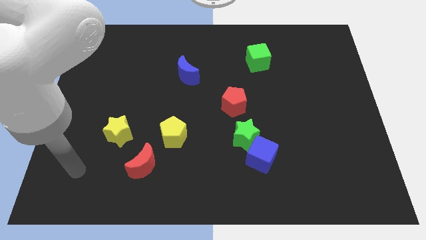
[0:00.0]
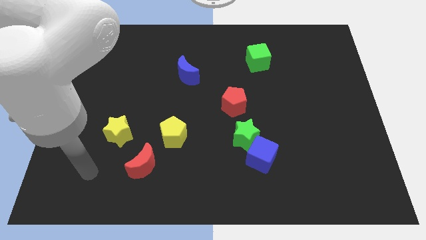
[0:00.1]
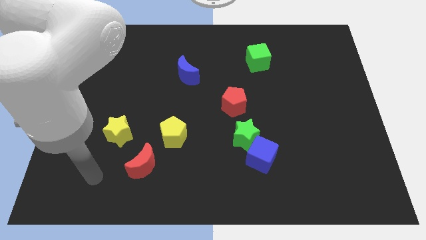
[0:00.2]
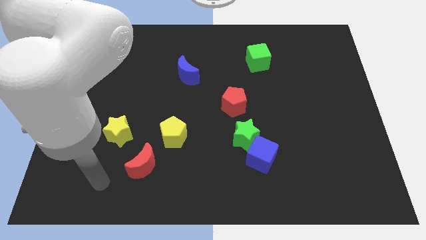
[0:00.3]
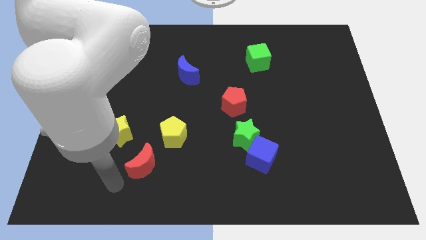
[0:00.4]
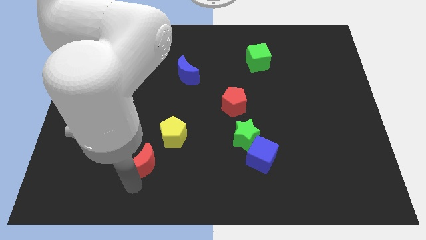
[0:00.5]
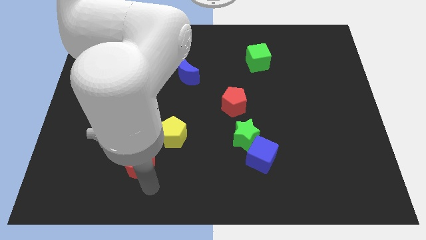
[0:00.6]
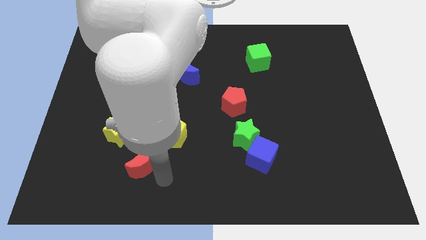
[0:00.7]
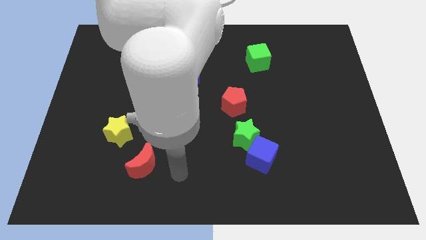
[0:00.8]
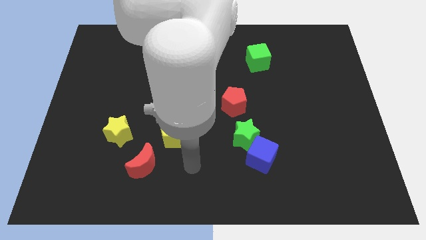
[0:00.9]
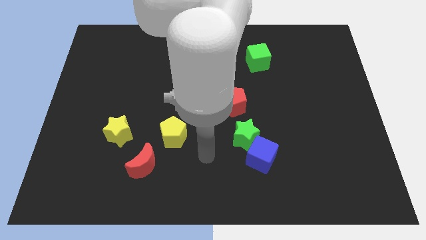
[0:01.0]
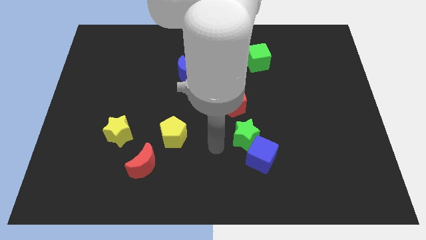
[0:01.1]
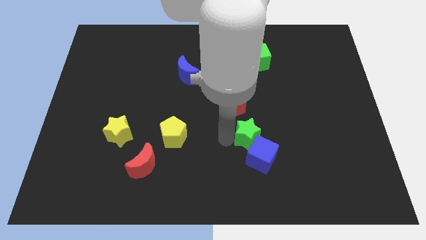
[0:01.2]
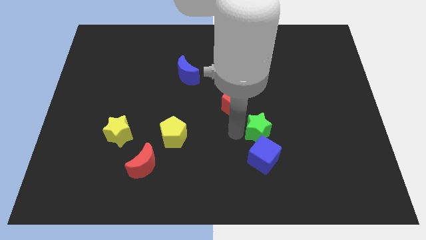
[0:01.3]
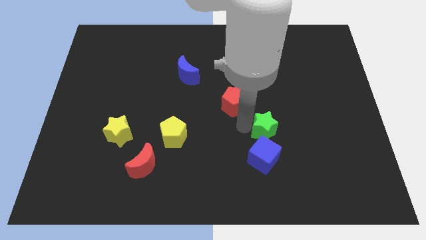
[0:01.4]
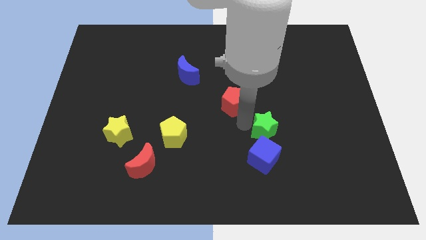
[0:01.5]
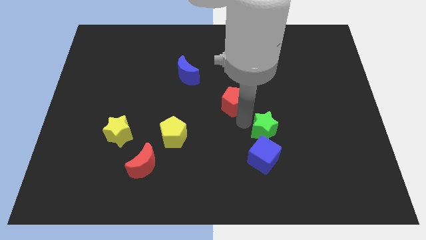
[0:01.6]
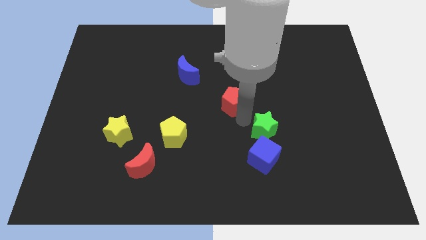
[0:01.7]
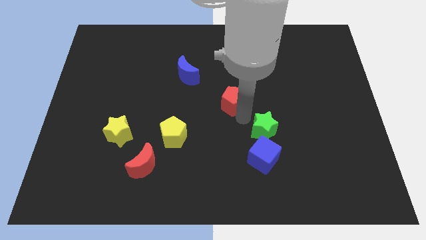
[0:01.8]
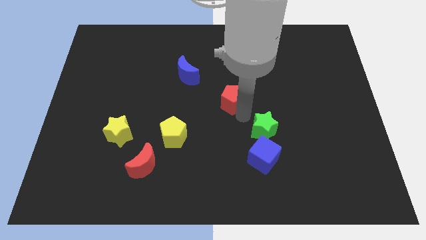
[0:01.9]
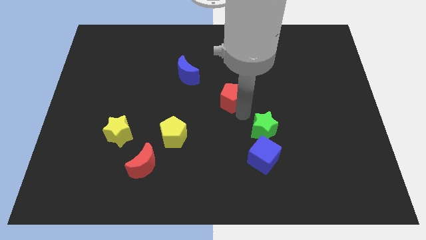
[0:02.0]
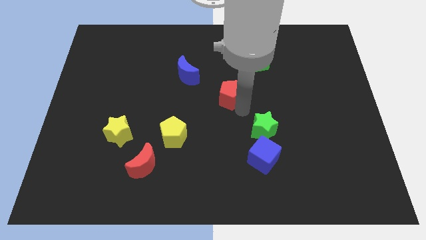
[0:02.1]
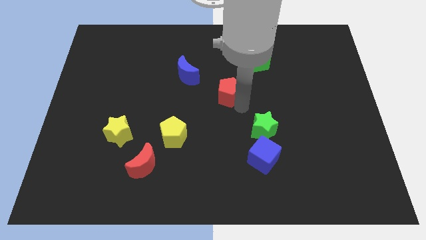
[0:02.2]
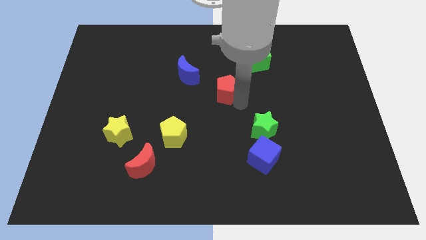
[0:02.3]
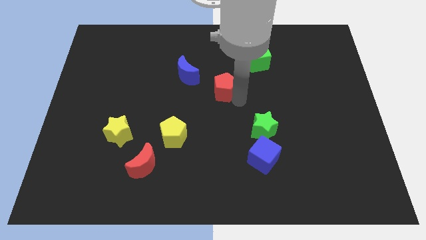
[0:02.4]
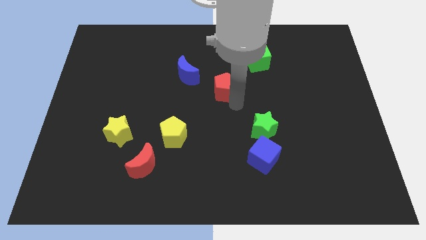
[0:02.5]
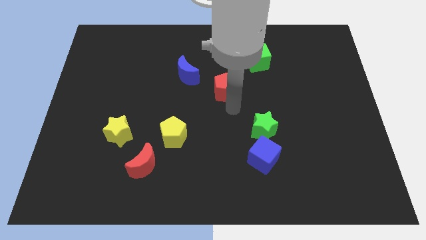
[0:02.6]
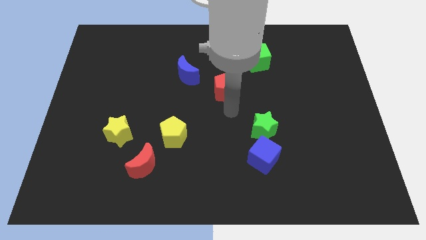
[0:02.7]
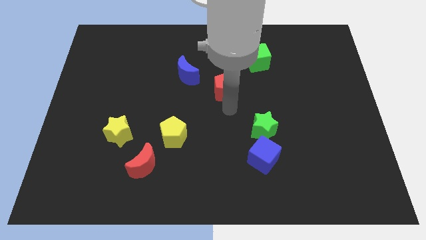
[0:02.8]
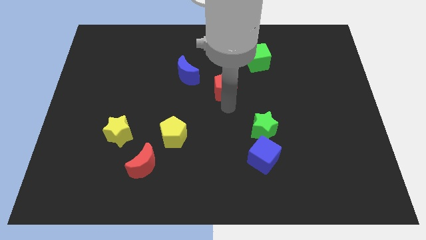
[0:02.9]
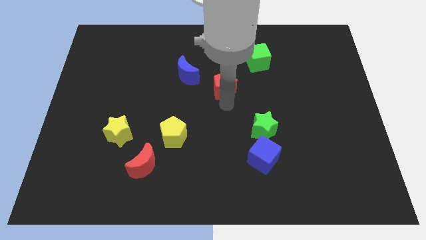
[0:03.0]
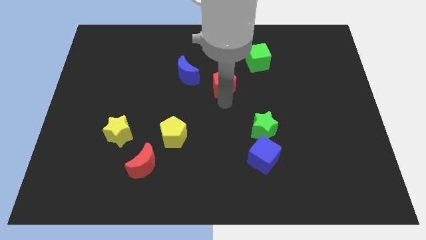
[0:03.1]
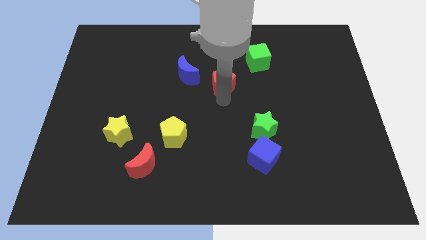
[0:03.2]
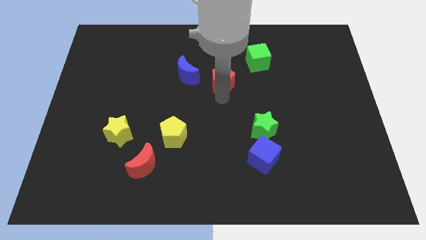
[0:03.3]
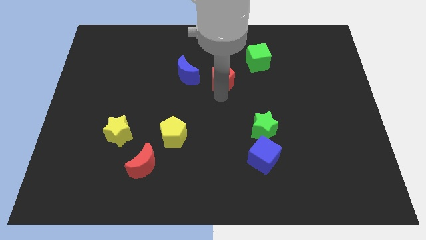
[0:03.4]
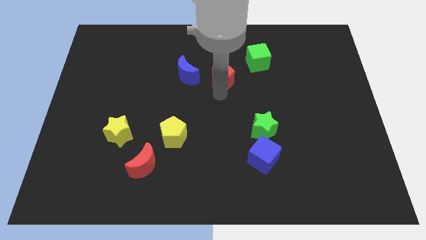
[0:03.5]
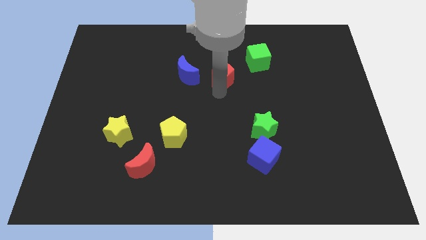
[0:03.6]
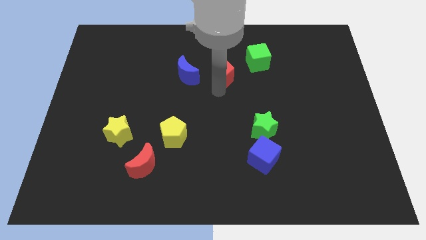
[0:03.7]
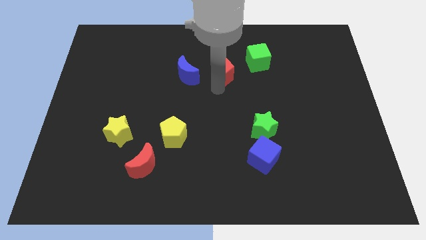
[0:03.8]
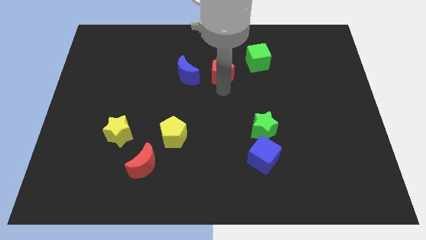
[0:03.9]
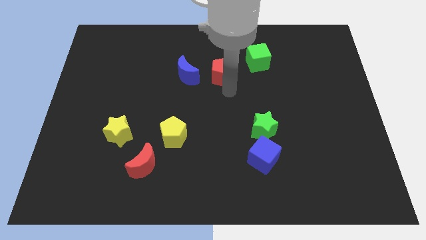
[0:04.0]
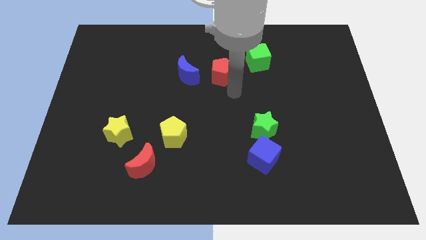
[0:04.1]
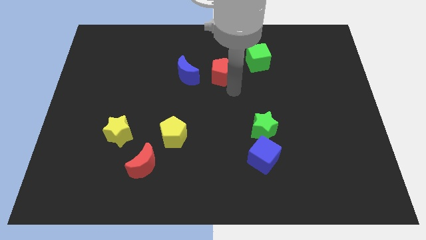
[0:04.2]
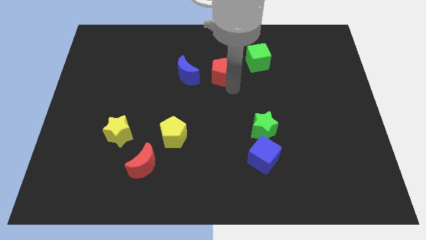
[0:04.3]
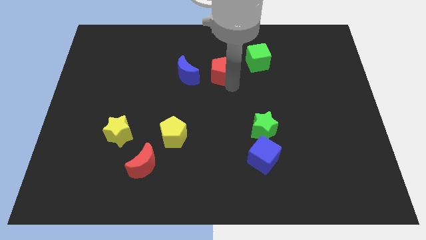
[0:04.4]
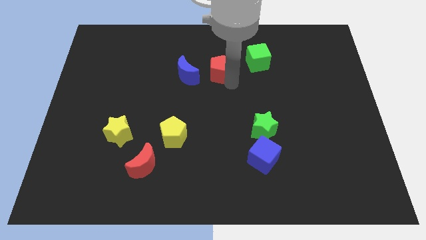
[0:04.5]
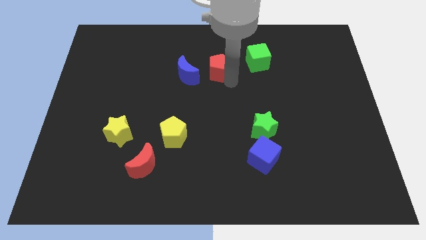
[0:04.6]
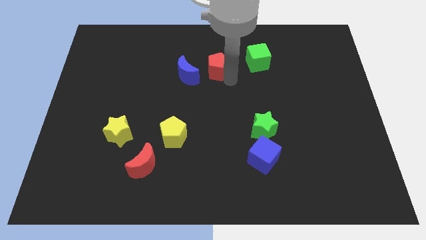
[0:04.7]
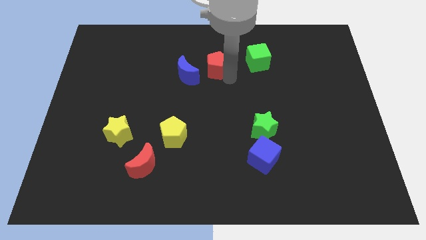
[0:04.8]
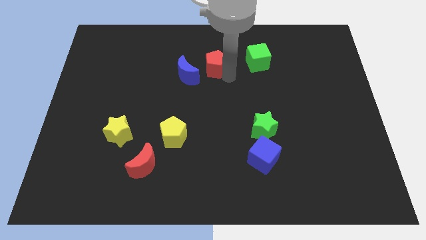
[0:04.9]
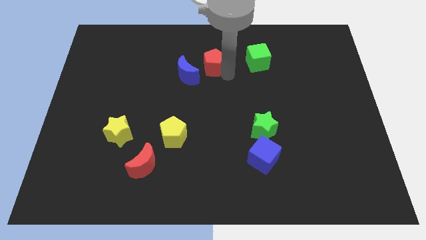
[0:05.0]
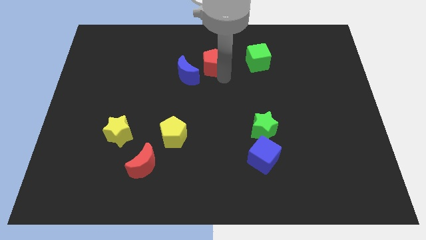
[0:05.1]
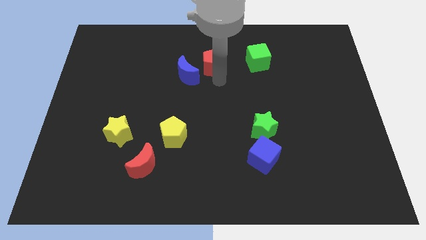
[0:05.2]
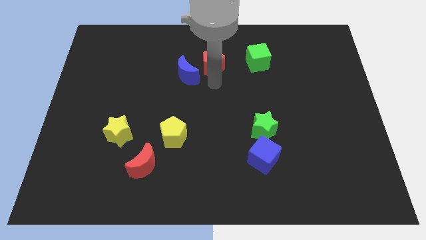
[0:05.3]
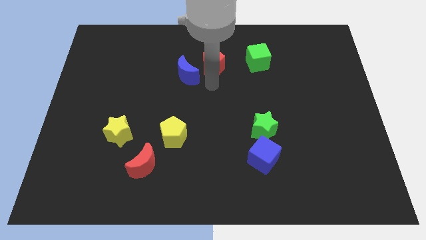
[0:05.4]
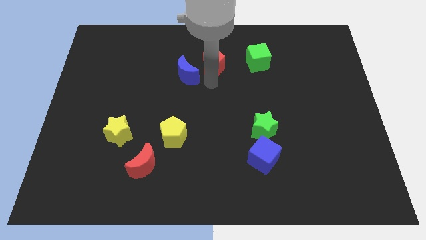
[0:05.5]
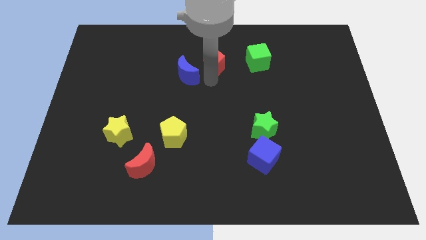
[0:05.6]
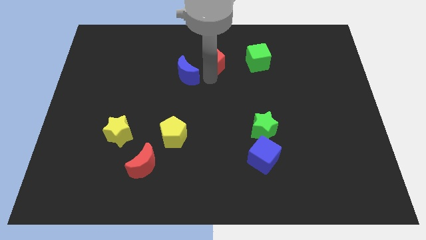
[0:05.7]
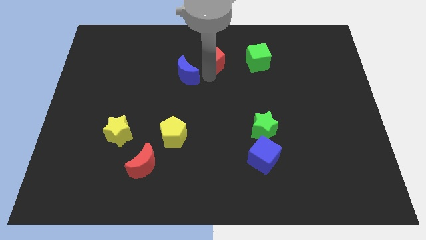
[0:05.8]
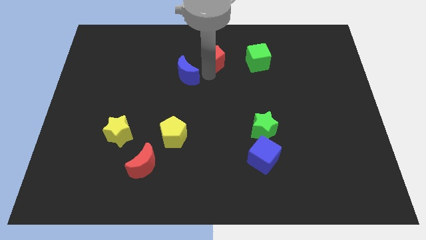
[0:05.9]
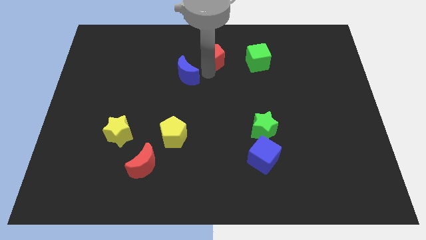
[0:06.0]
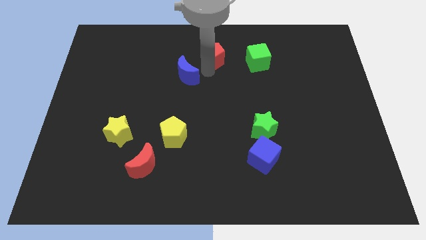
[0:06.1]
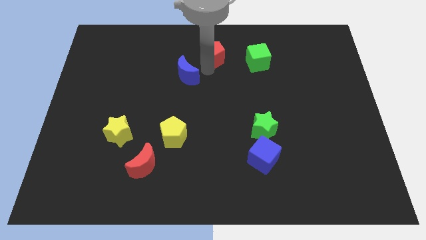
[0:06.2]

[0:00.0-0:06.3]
push the red pentagon to the towards your base

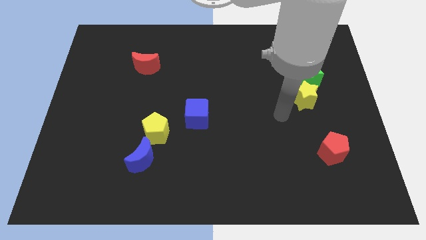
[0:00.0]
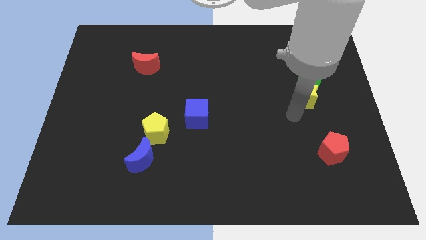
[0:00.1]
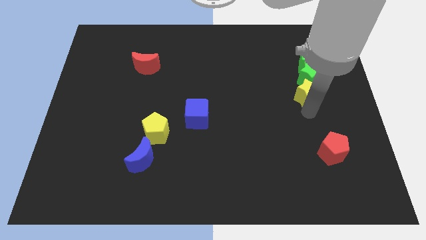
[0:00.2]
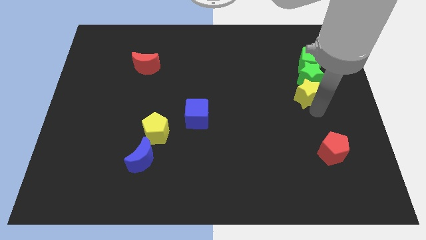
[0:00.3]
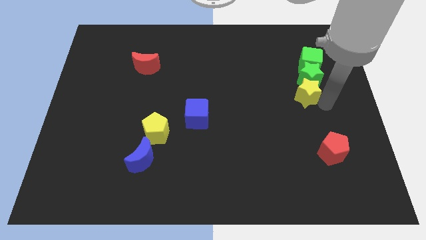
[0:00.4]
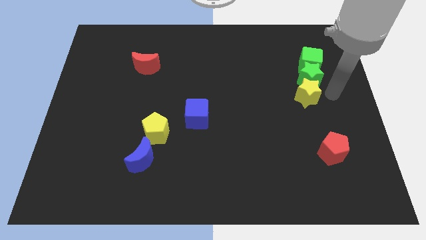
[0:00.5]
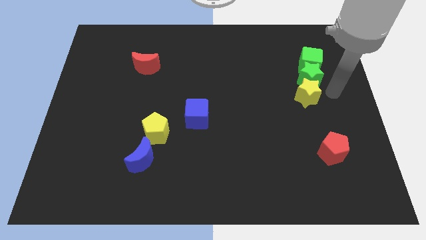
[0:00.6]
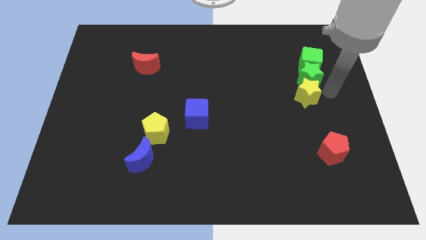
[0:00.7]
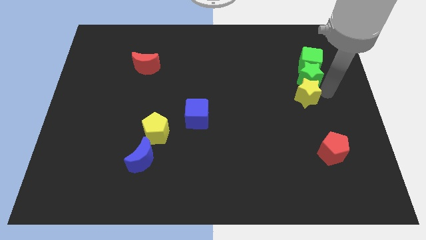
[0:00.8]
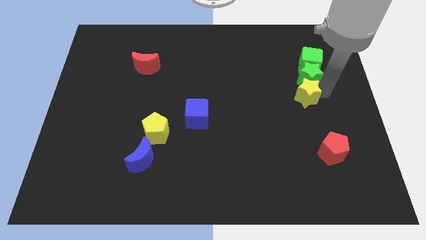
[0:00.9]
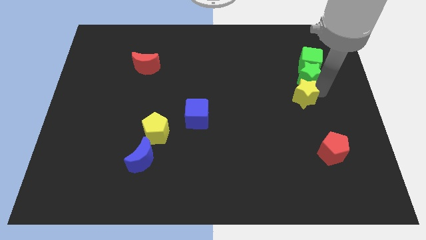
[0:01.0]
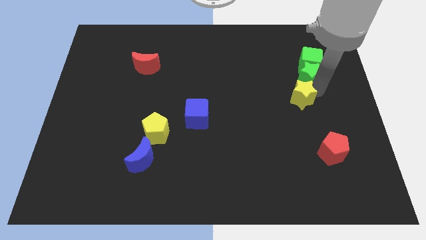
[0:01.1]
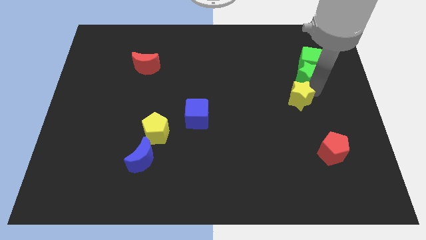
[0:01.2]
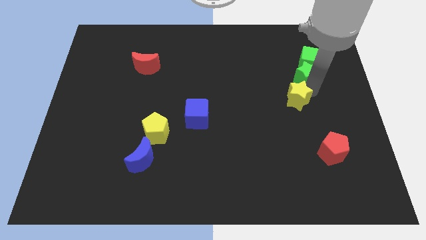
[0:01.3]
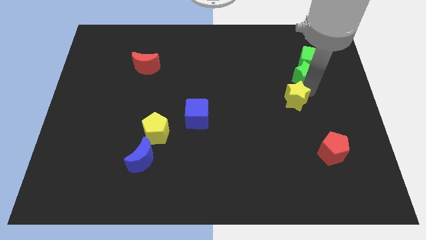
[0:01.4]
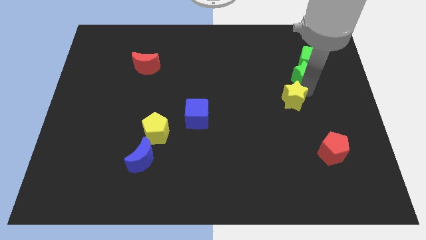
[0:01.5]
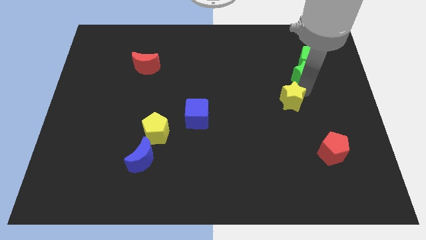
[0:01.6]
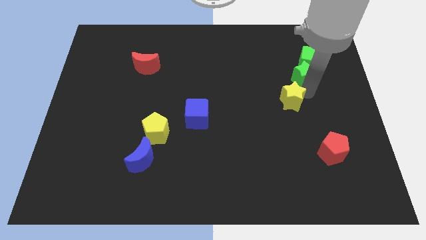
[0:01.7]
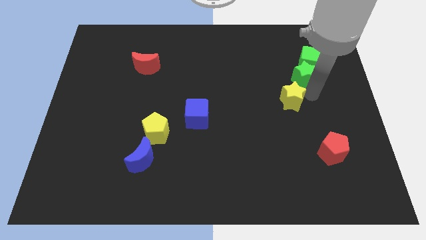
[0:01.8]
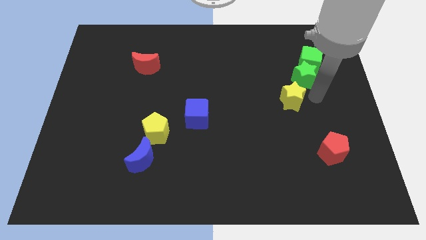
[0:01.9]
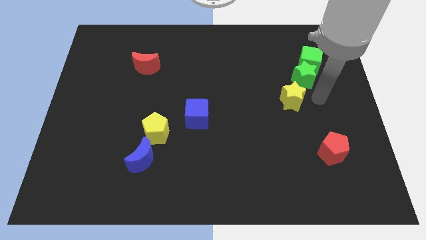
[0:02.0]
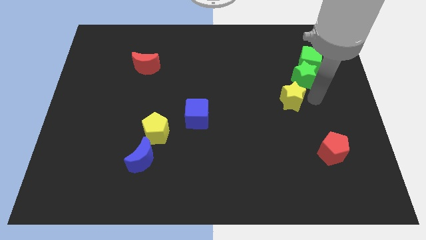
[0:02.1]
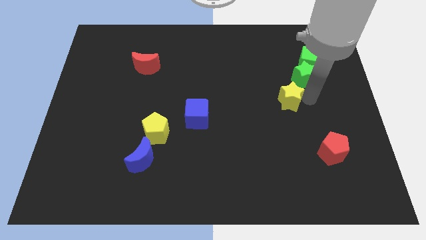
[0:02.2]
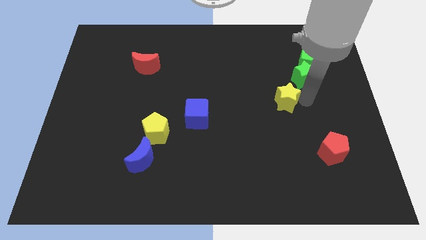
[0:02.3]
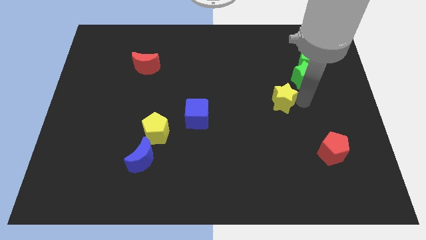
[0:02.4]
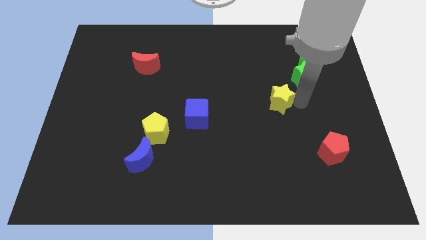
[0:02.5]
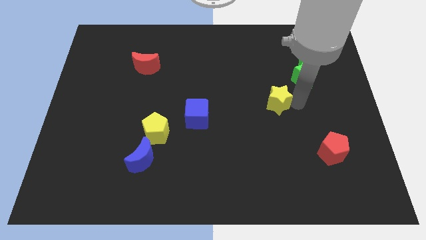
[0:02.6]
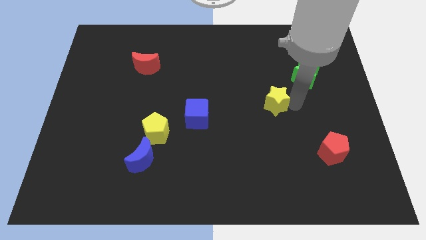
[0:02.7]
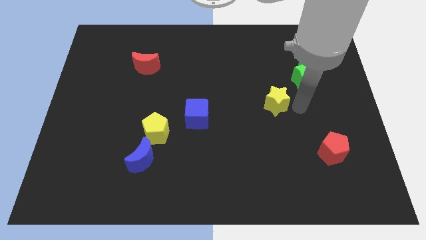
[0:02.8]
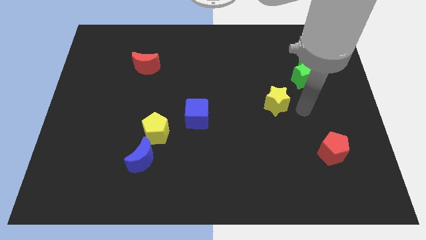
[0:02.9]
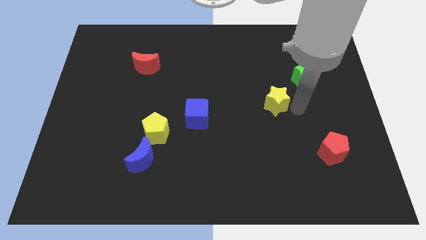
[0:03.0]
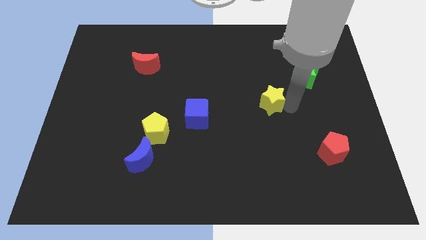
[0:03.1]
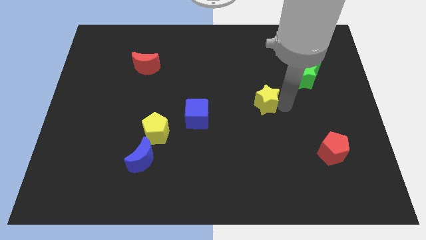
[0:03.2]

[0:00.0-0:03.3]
put the yellow star to the center
